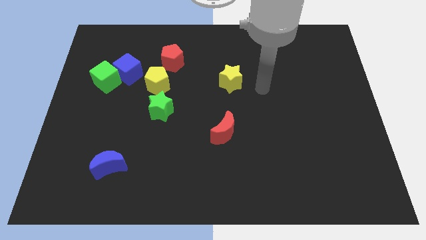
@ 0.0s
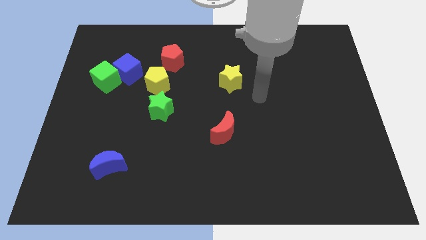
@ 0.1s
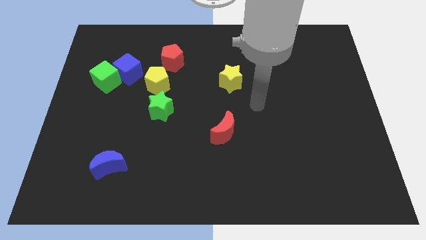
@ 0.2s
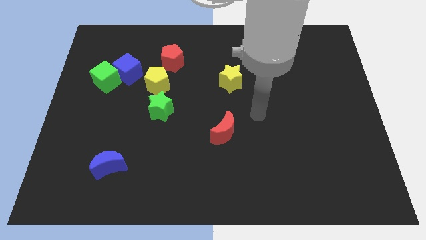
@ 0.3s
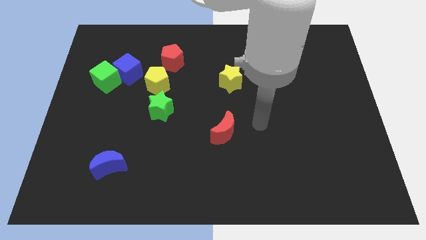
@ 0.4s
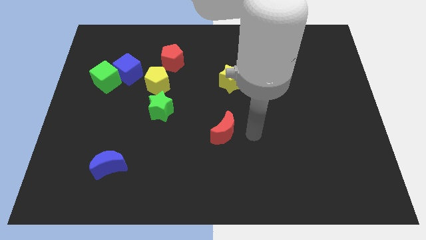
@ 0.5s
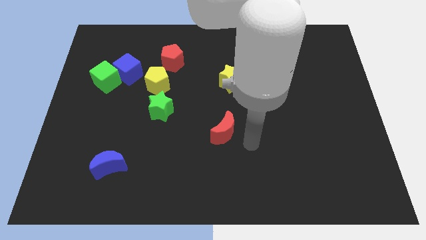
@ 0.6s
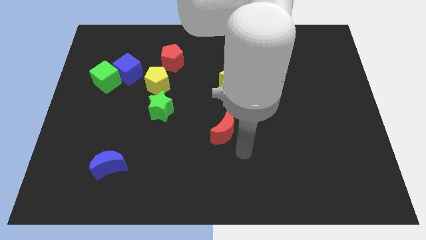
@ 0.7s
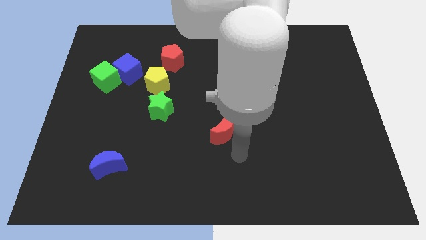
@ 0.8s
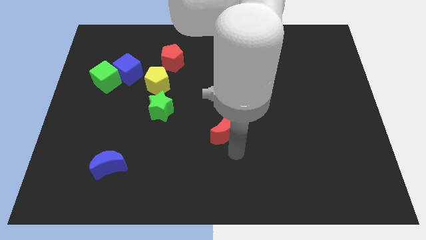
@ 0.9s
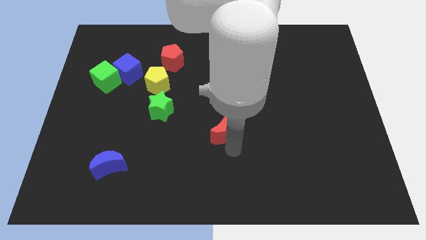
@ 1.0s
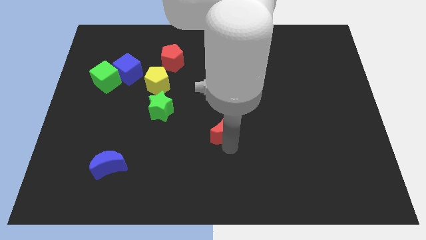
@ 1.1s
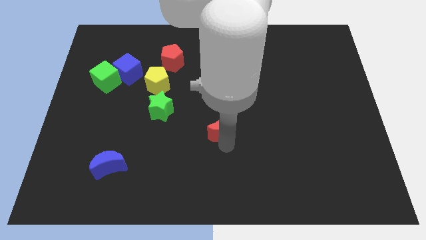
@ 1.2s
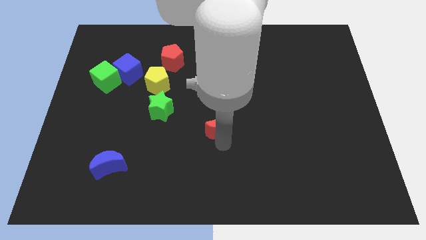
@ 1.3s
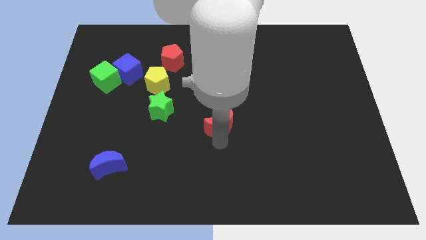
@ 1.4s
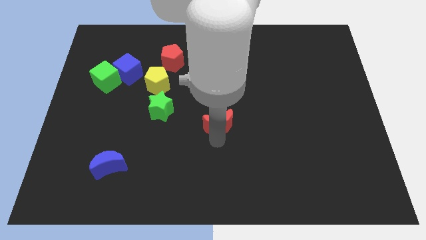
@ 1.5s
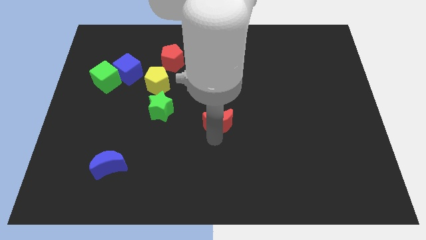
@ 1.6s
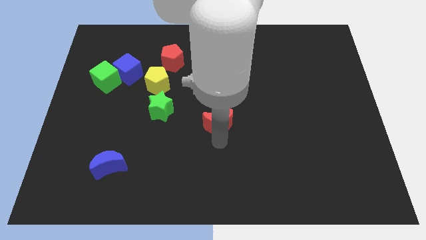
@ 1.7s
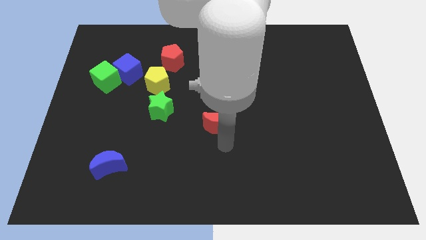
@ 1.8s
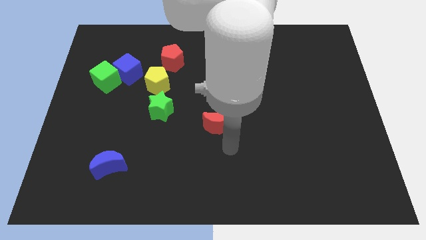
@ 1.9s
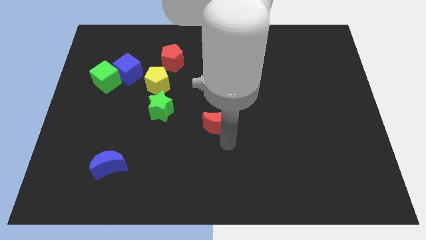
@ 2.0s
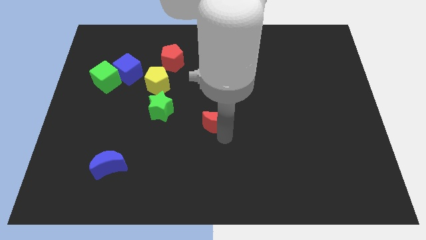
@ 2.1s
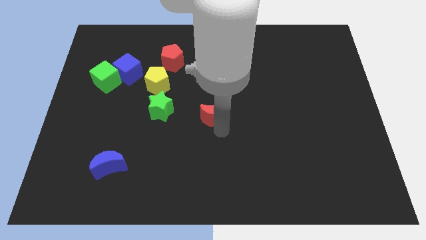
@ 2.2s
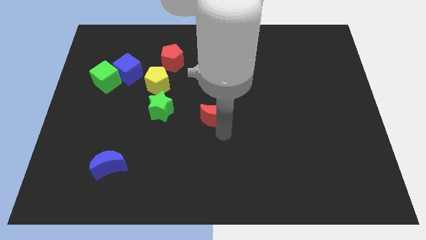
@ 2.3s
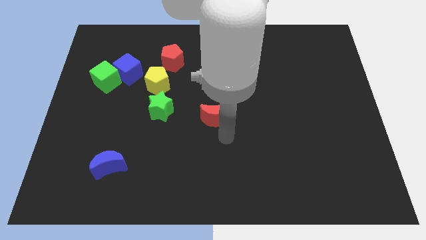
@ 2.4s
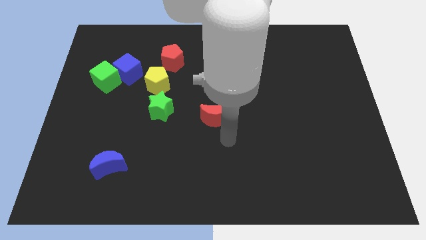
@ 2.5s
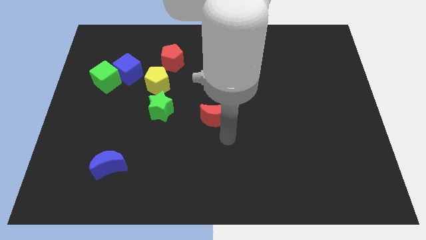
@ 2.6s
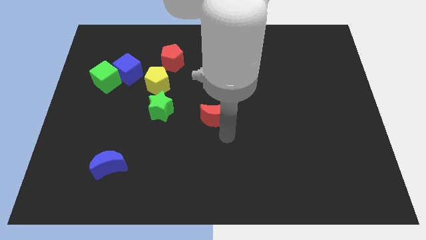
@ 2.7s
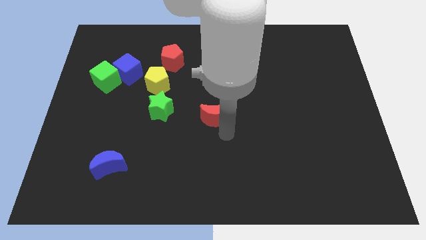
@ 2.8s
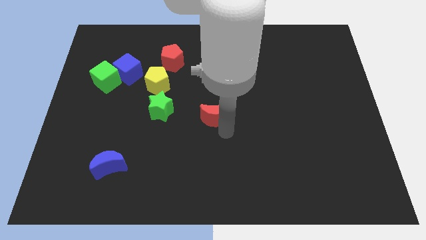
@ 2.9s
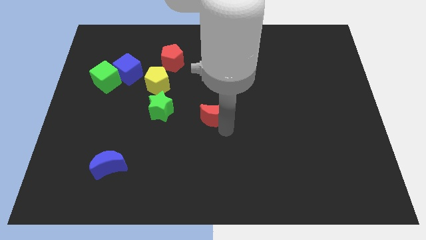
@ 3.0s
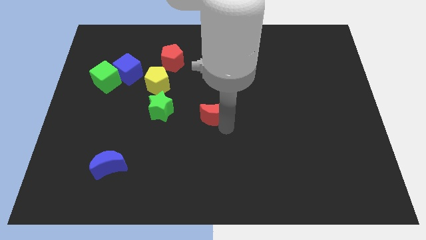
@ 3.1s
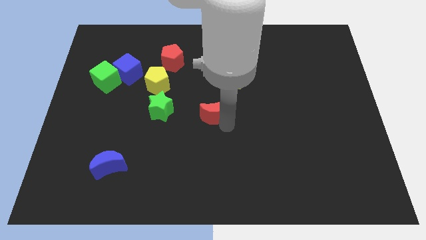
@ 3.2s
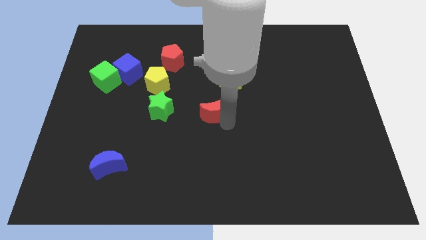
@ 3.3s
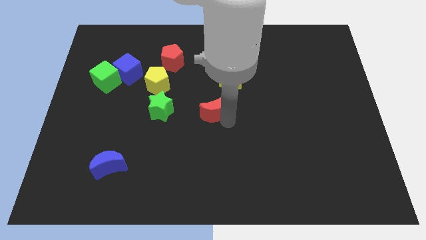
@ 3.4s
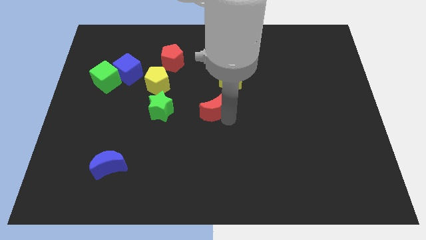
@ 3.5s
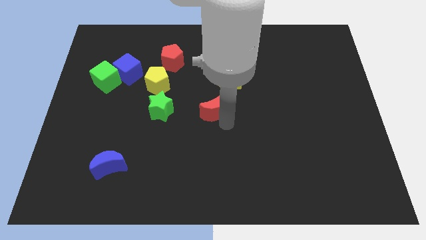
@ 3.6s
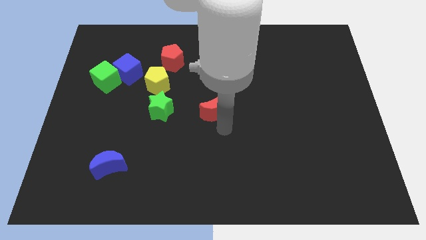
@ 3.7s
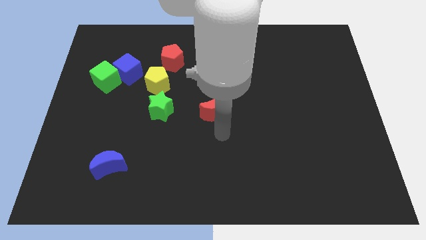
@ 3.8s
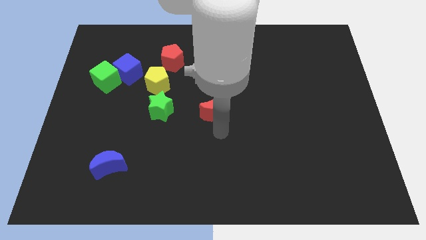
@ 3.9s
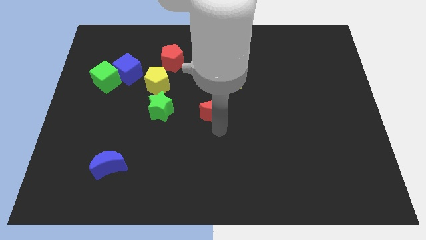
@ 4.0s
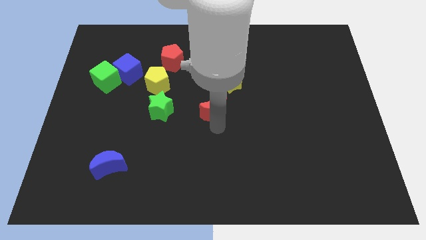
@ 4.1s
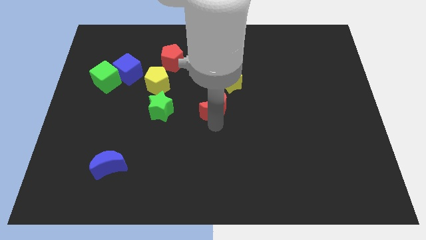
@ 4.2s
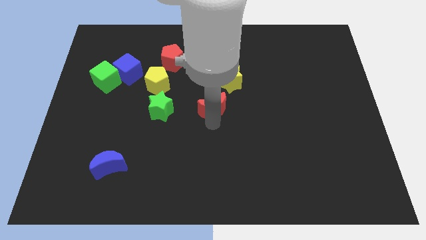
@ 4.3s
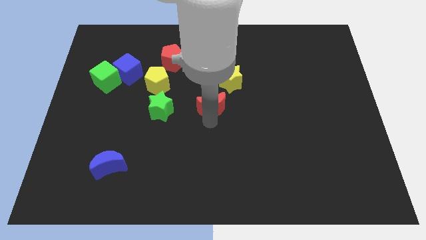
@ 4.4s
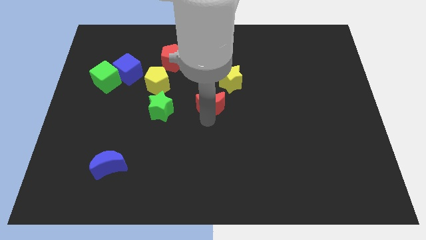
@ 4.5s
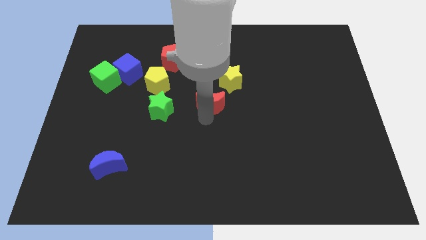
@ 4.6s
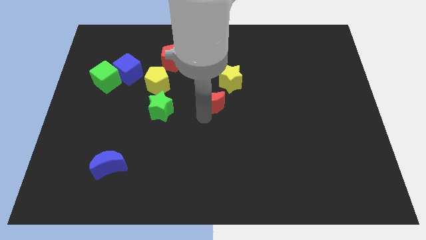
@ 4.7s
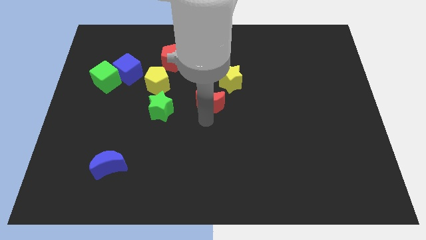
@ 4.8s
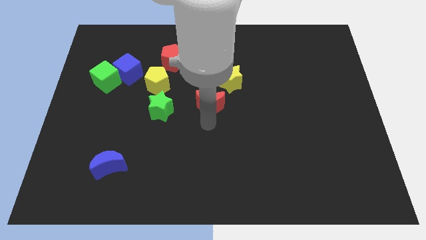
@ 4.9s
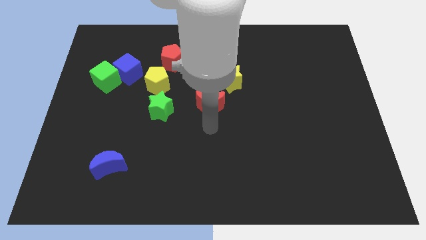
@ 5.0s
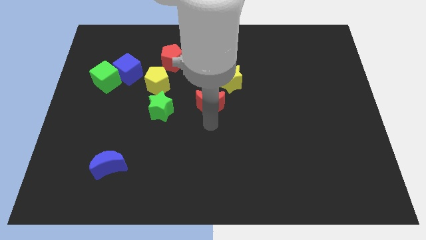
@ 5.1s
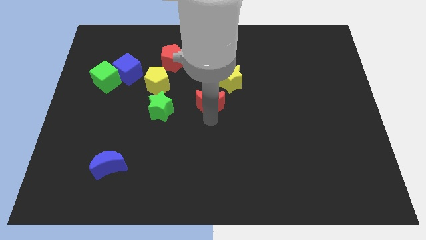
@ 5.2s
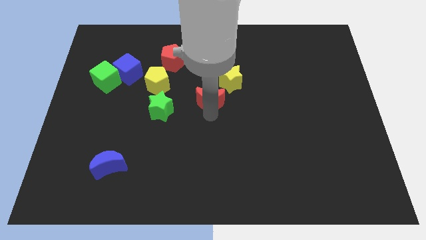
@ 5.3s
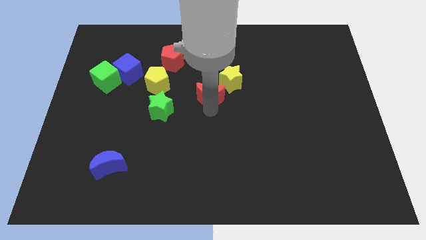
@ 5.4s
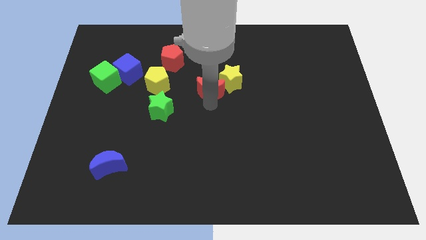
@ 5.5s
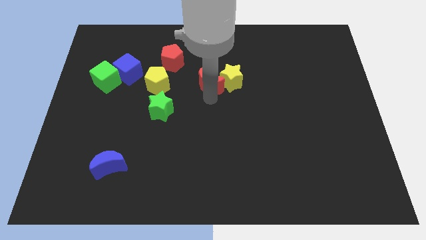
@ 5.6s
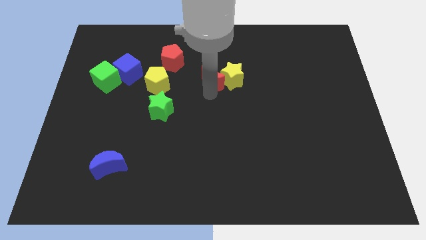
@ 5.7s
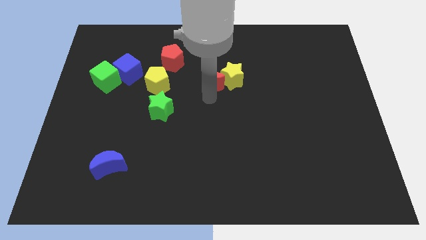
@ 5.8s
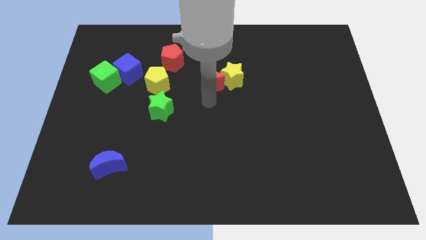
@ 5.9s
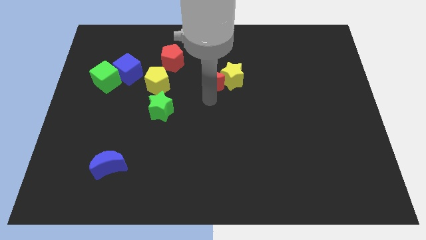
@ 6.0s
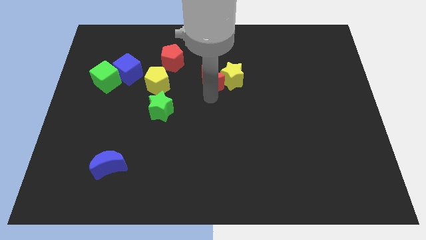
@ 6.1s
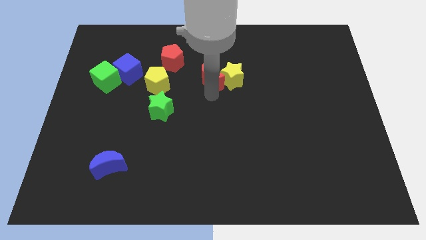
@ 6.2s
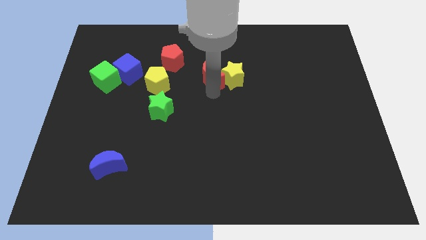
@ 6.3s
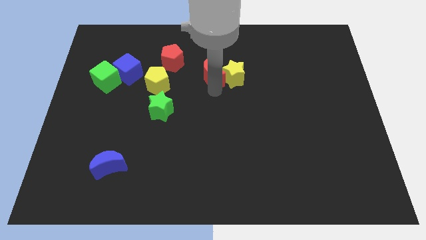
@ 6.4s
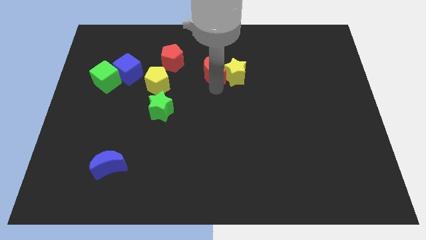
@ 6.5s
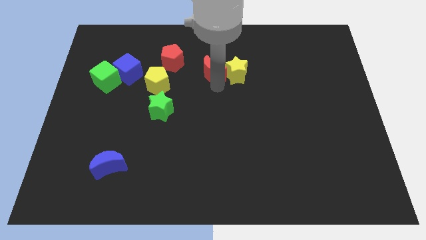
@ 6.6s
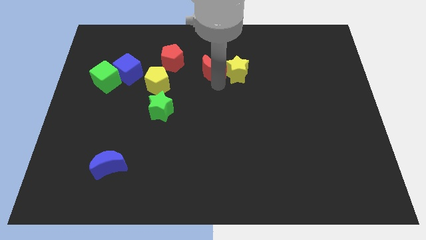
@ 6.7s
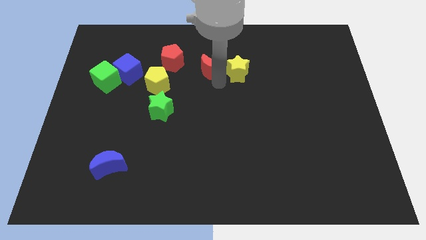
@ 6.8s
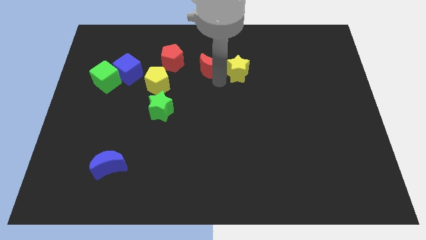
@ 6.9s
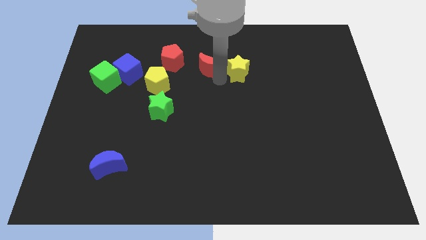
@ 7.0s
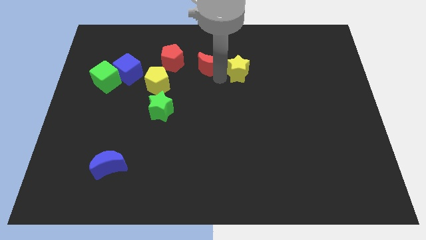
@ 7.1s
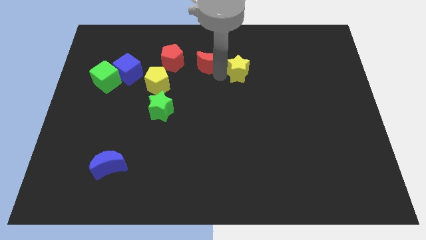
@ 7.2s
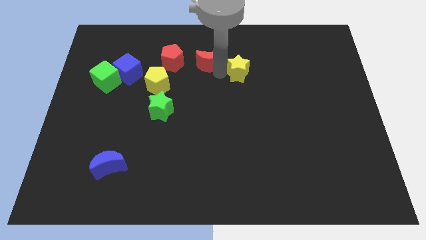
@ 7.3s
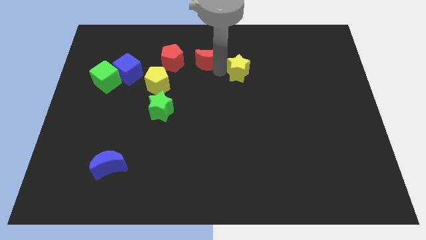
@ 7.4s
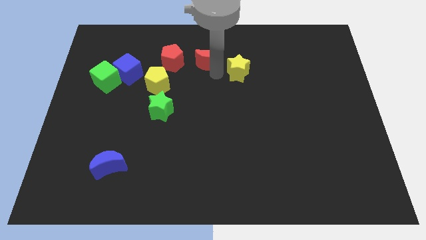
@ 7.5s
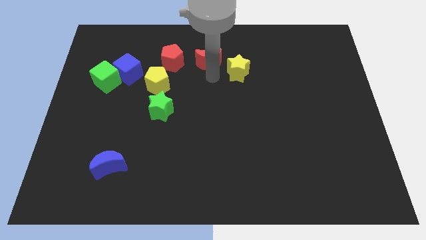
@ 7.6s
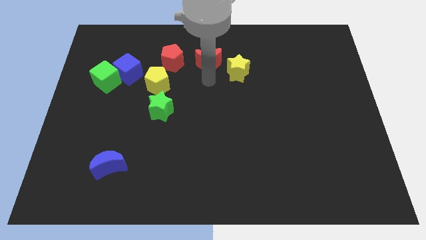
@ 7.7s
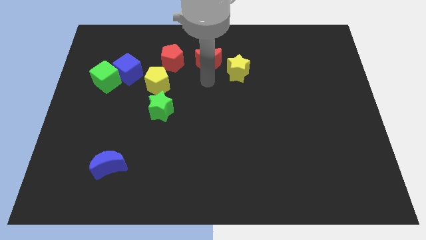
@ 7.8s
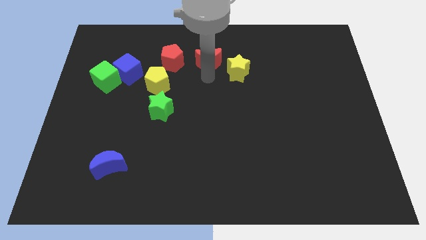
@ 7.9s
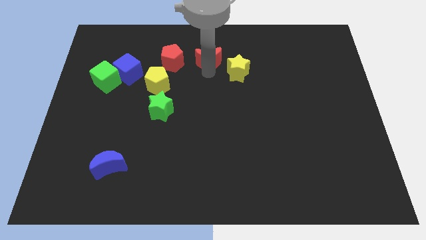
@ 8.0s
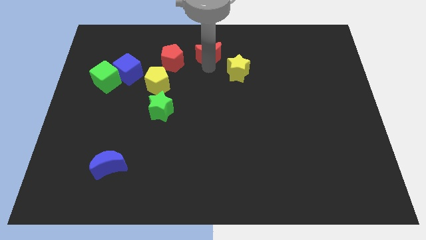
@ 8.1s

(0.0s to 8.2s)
move the red moon to the towards your base
